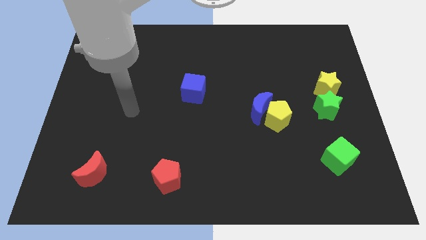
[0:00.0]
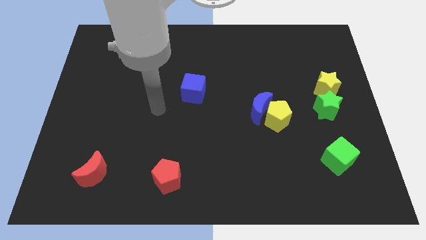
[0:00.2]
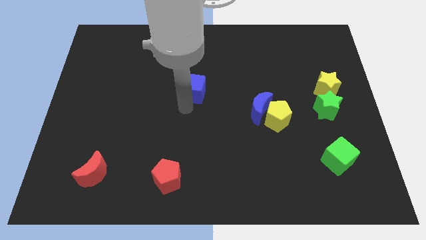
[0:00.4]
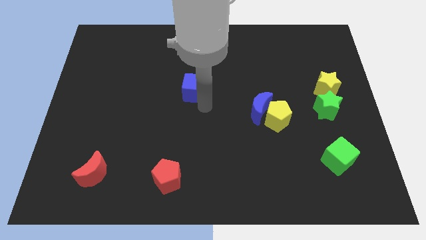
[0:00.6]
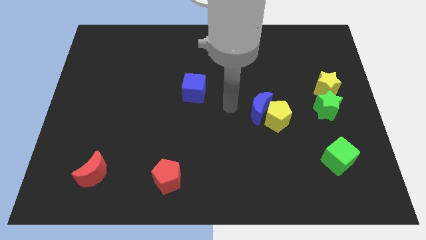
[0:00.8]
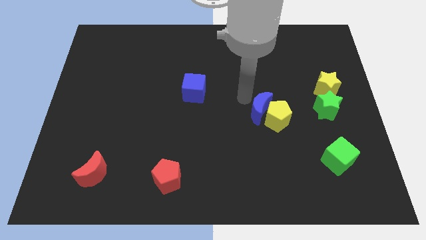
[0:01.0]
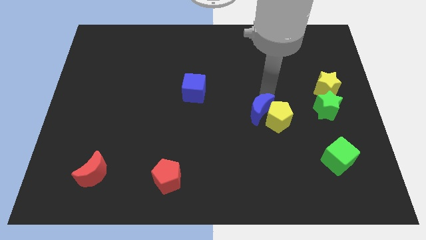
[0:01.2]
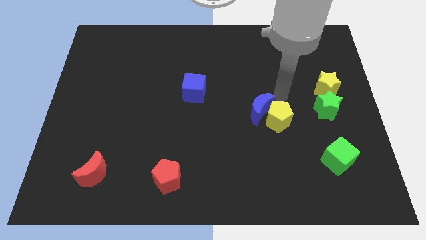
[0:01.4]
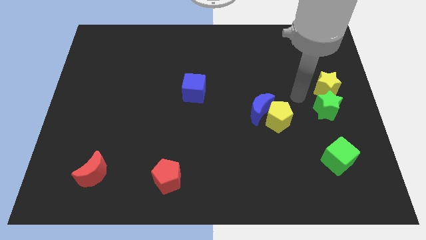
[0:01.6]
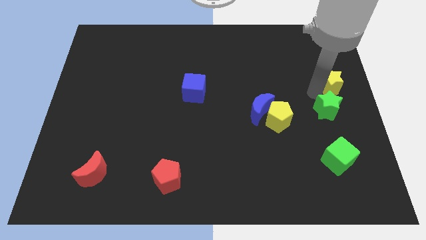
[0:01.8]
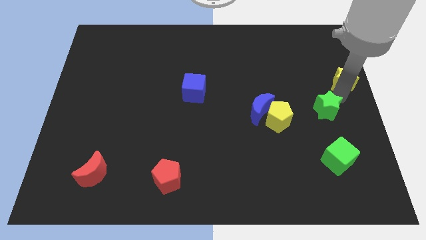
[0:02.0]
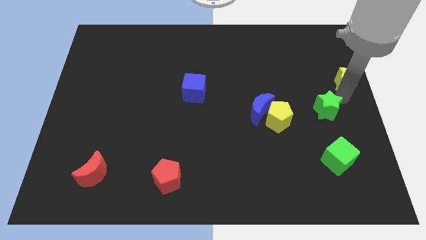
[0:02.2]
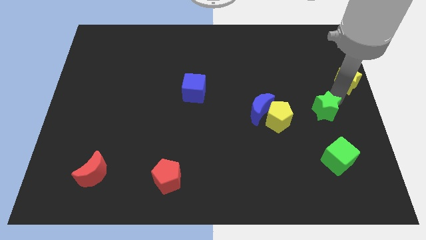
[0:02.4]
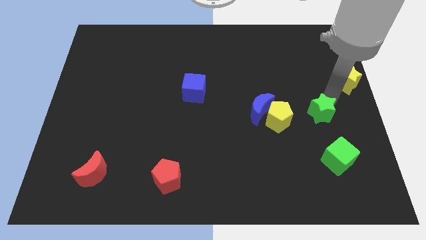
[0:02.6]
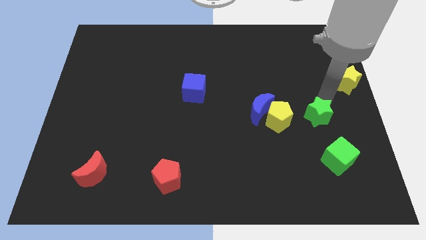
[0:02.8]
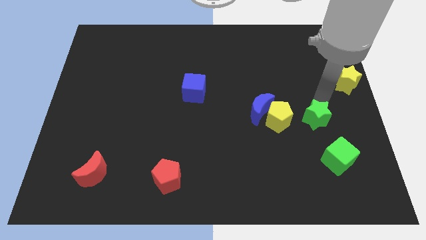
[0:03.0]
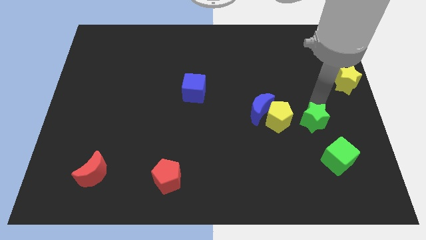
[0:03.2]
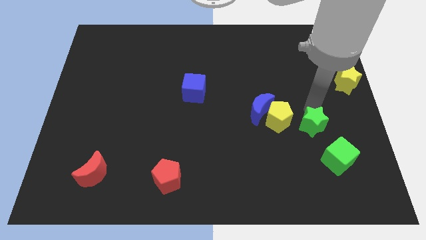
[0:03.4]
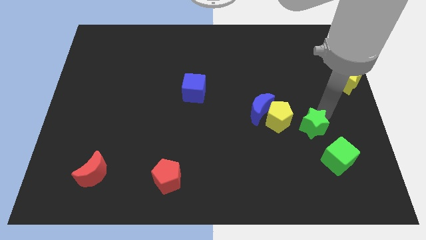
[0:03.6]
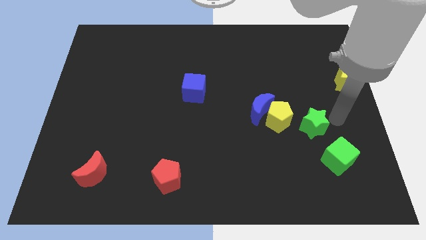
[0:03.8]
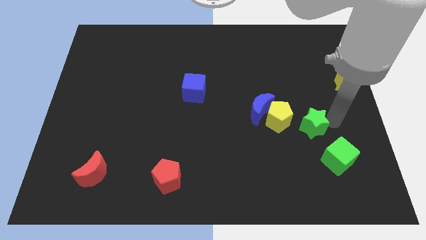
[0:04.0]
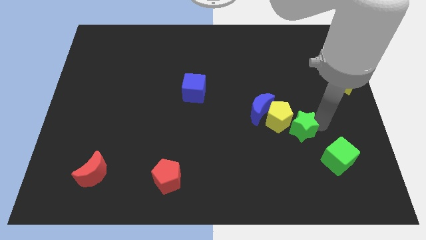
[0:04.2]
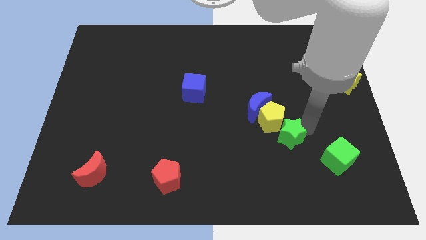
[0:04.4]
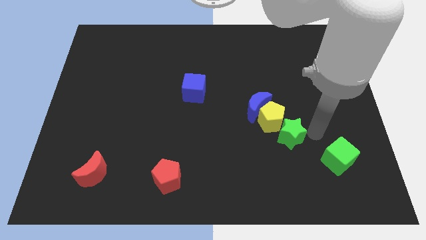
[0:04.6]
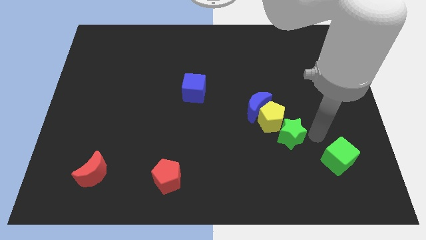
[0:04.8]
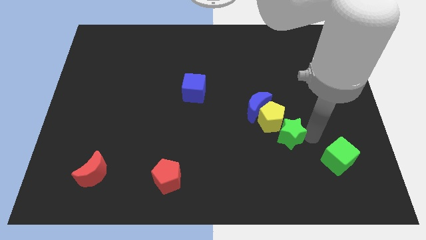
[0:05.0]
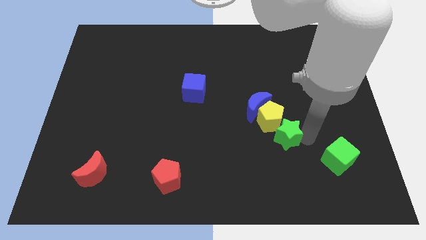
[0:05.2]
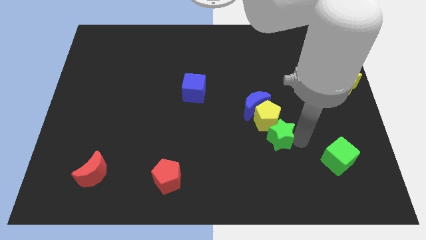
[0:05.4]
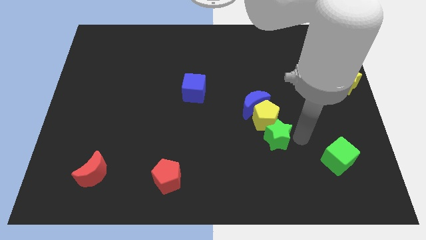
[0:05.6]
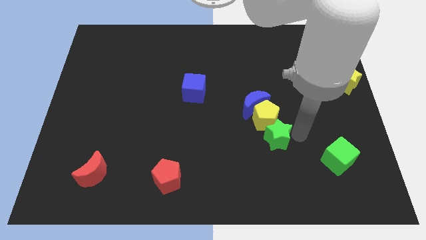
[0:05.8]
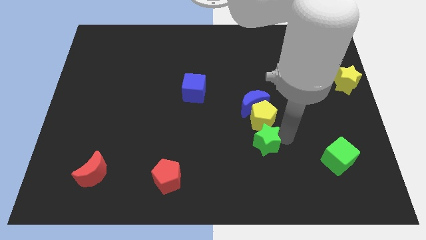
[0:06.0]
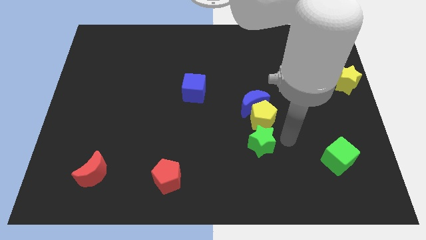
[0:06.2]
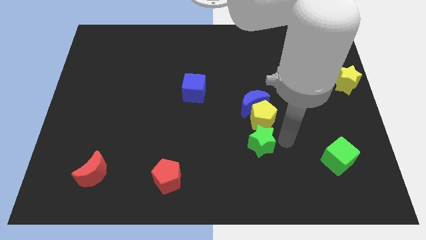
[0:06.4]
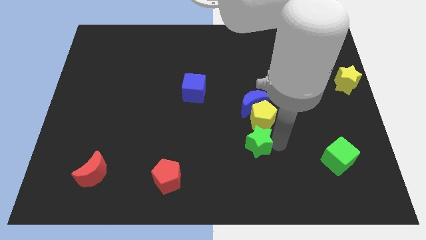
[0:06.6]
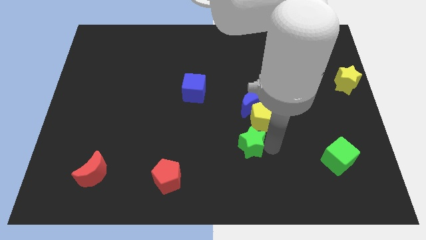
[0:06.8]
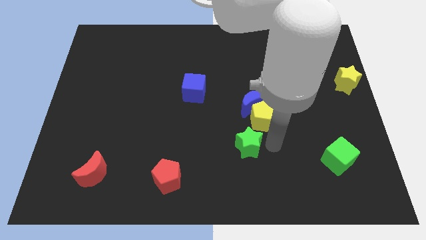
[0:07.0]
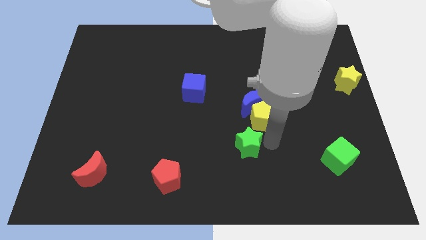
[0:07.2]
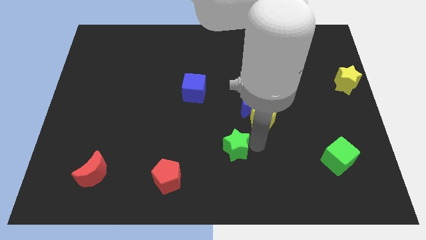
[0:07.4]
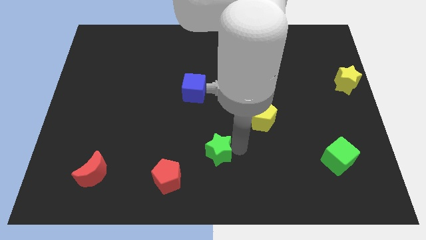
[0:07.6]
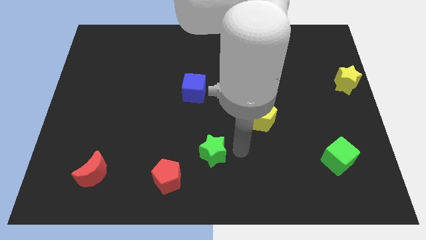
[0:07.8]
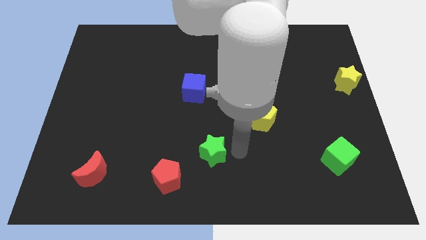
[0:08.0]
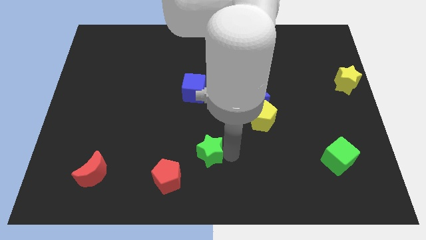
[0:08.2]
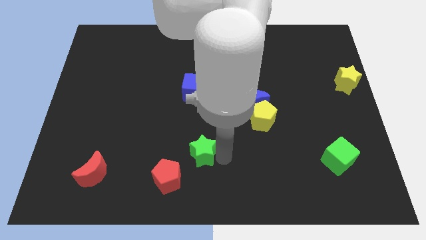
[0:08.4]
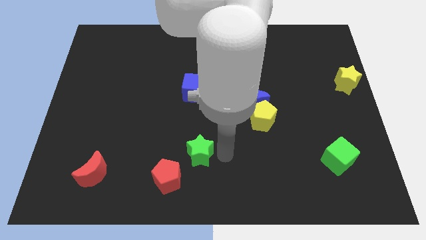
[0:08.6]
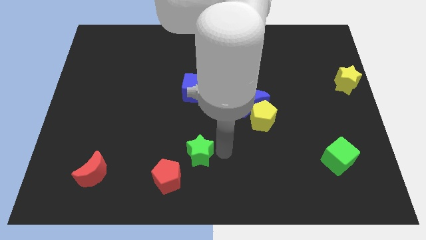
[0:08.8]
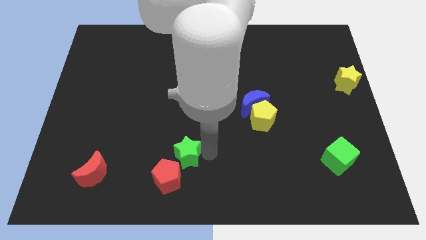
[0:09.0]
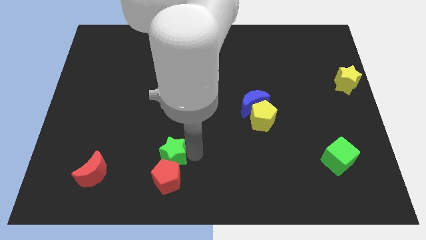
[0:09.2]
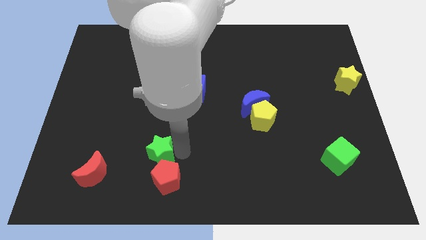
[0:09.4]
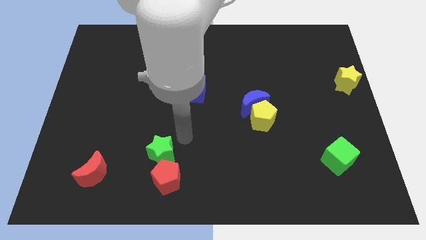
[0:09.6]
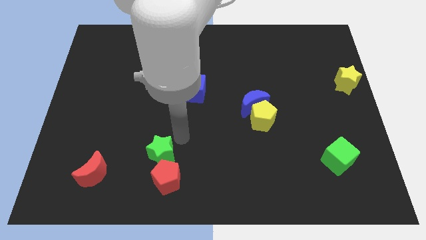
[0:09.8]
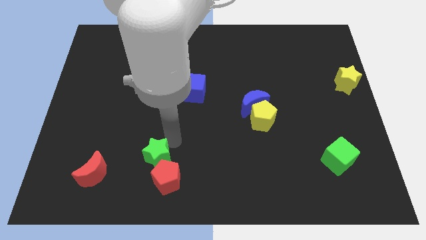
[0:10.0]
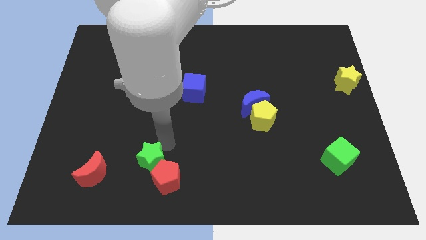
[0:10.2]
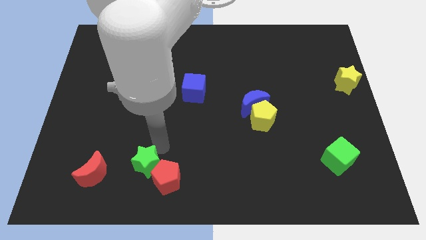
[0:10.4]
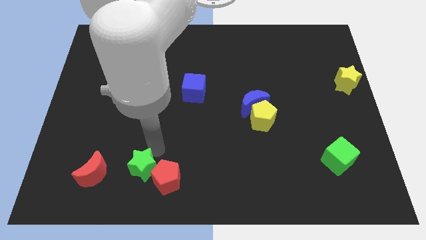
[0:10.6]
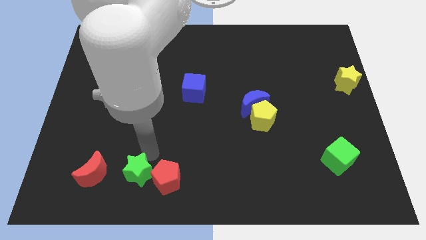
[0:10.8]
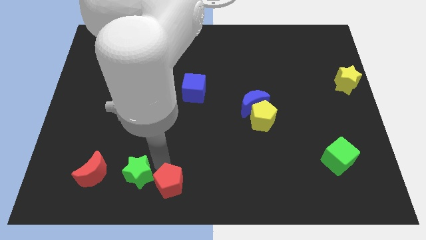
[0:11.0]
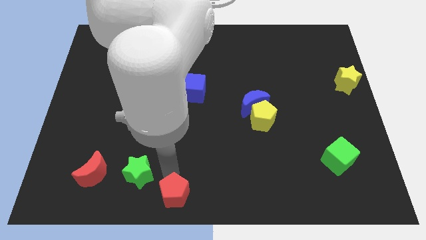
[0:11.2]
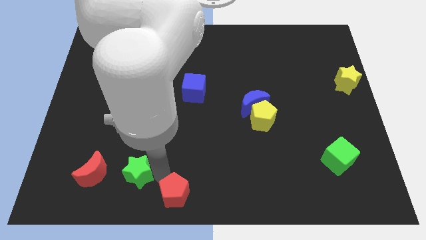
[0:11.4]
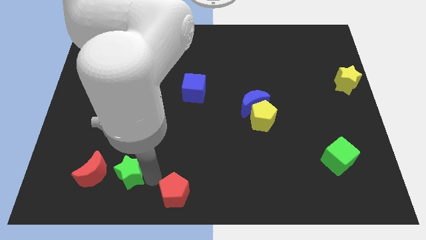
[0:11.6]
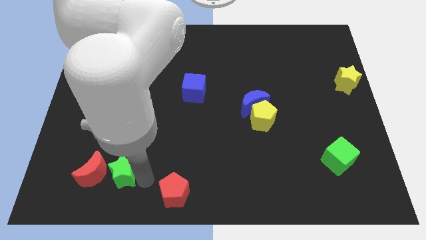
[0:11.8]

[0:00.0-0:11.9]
put the green star next to the red moon
